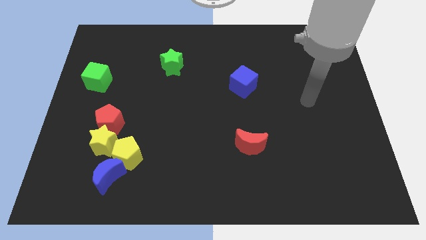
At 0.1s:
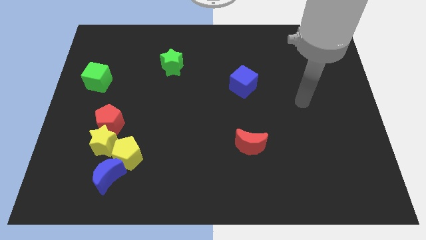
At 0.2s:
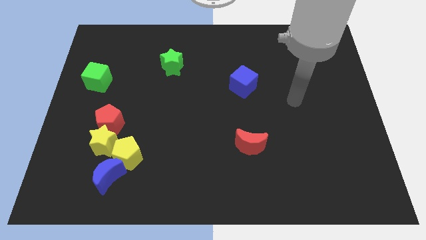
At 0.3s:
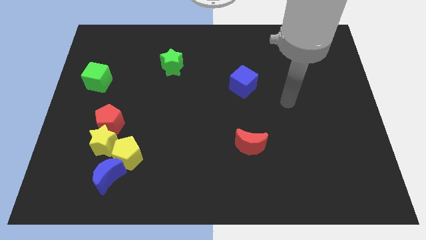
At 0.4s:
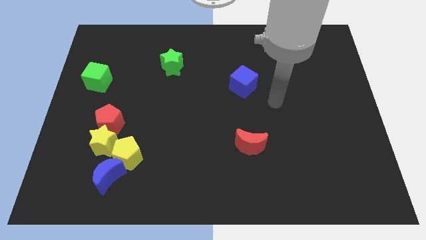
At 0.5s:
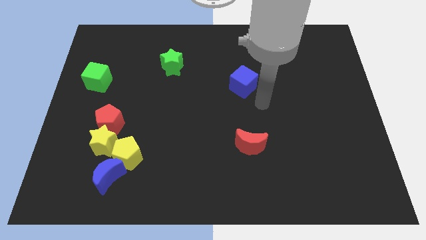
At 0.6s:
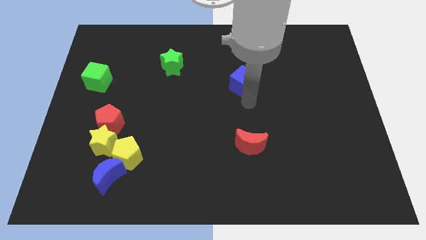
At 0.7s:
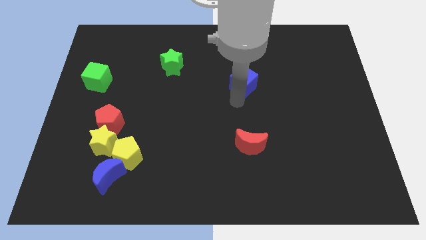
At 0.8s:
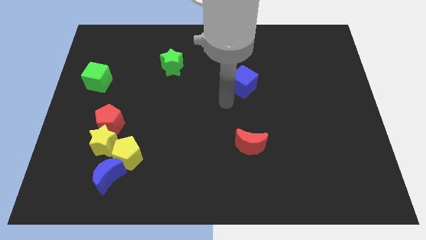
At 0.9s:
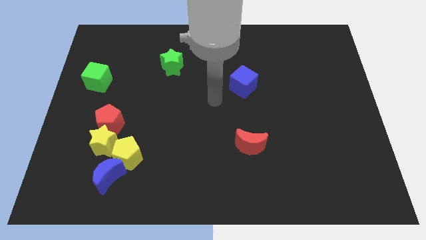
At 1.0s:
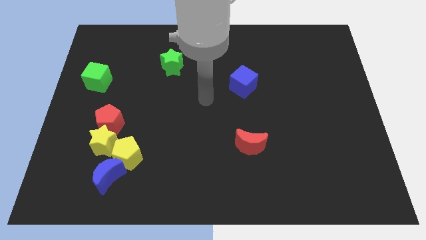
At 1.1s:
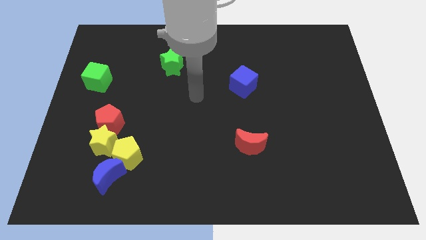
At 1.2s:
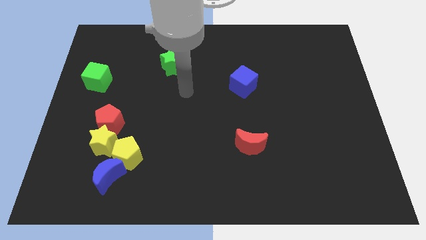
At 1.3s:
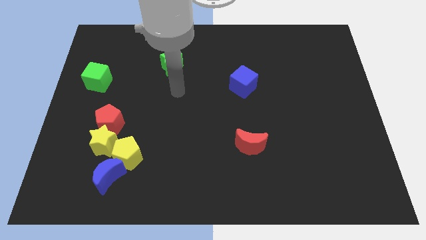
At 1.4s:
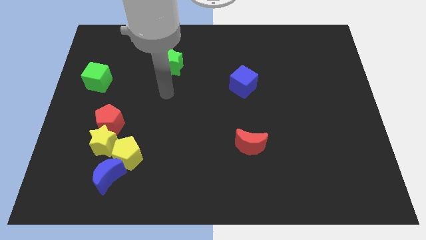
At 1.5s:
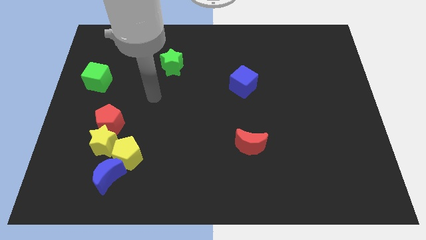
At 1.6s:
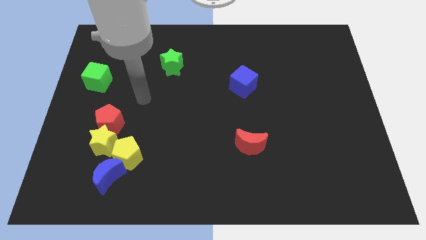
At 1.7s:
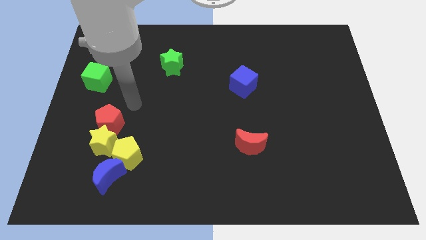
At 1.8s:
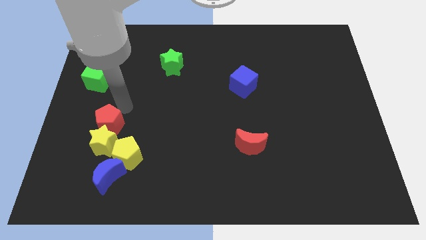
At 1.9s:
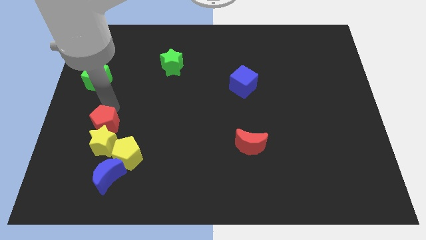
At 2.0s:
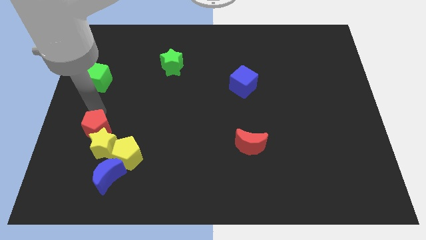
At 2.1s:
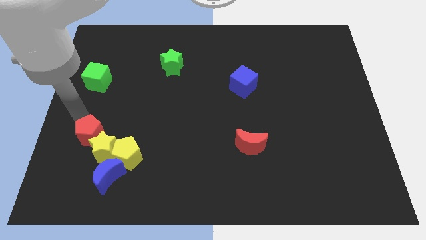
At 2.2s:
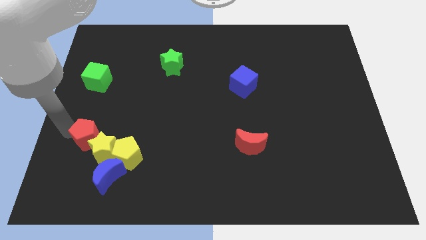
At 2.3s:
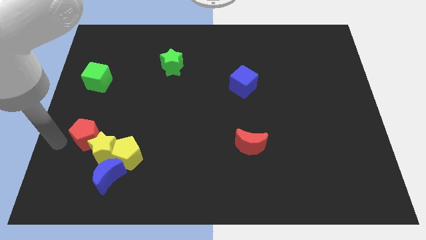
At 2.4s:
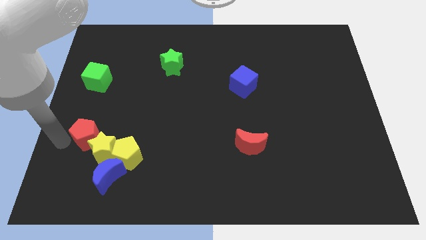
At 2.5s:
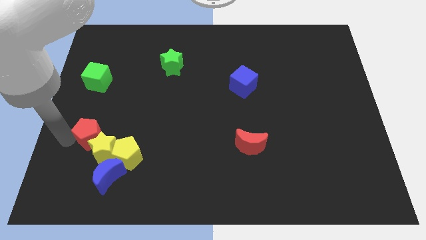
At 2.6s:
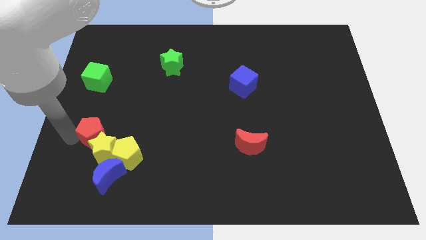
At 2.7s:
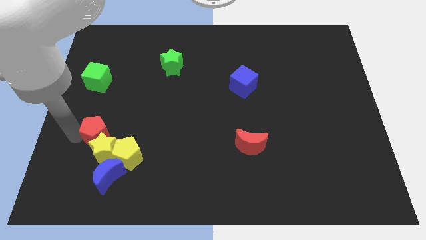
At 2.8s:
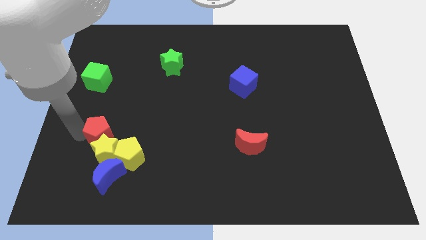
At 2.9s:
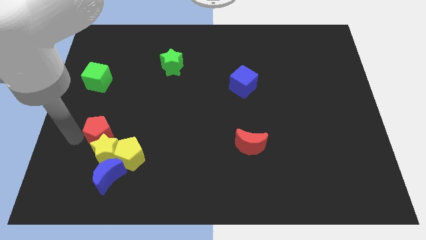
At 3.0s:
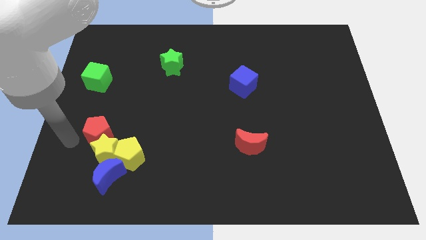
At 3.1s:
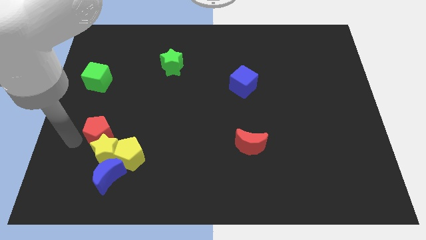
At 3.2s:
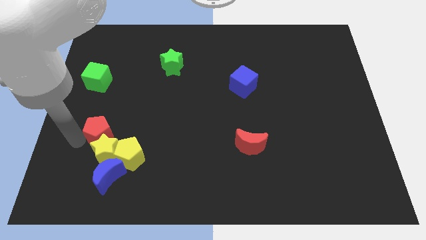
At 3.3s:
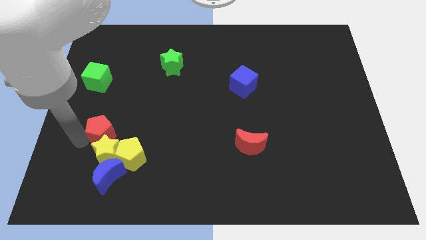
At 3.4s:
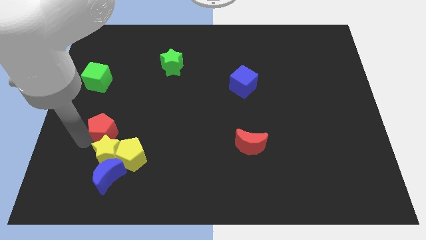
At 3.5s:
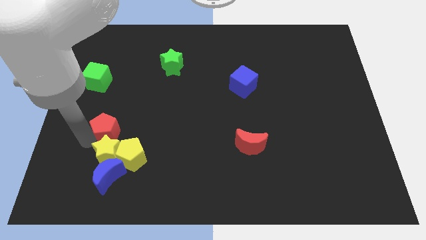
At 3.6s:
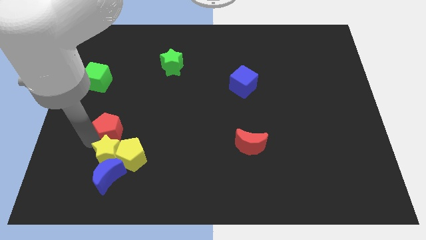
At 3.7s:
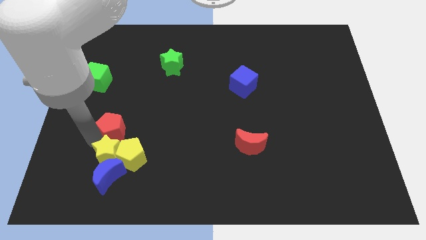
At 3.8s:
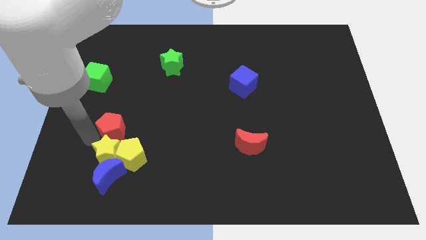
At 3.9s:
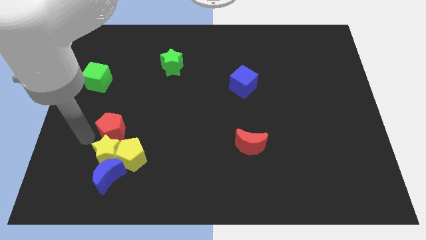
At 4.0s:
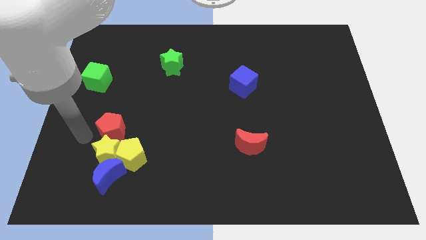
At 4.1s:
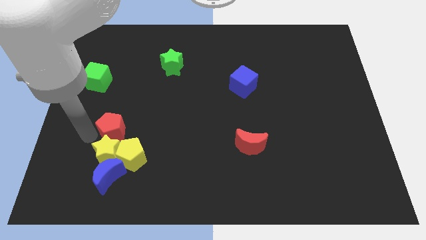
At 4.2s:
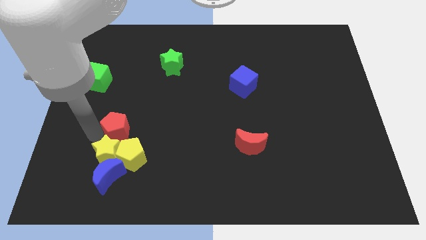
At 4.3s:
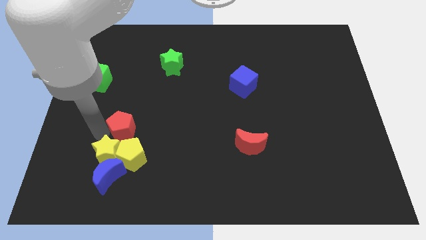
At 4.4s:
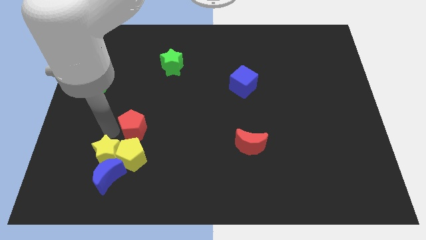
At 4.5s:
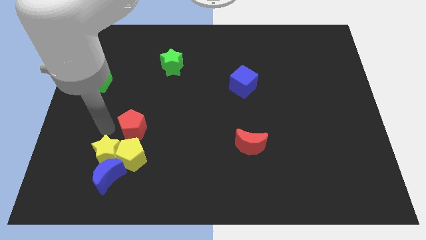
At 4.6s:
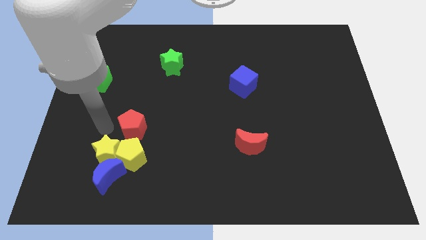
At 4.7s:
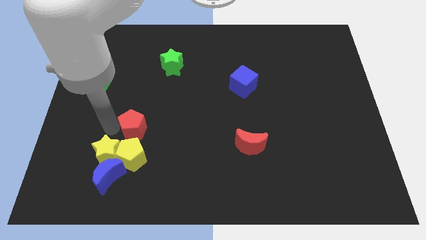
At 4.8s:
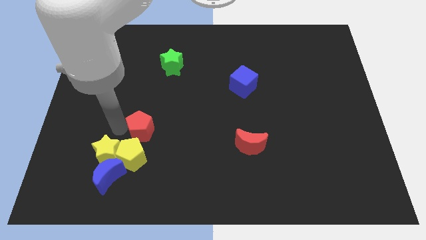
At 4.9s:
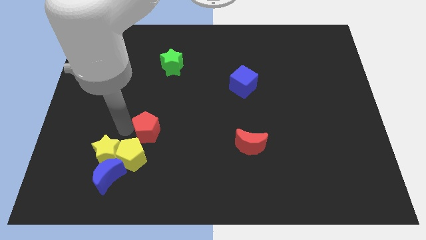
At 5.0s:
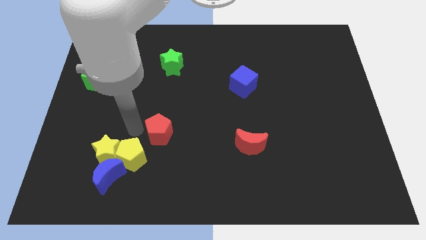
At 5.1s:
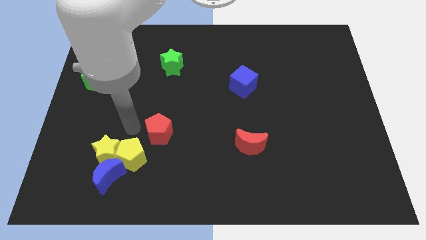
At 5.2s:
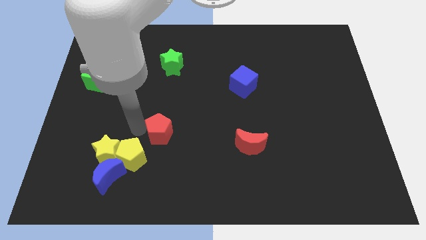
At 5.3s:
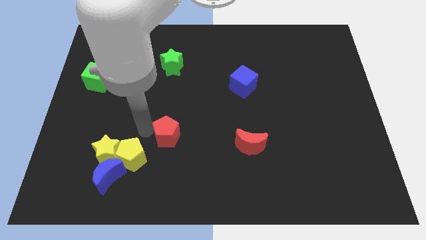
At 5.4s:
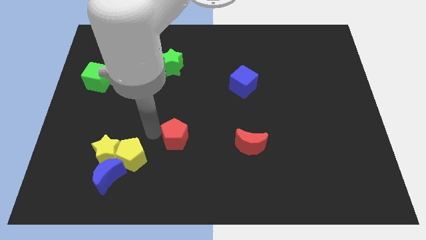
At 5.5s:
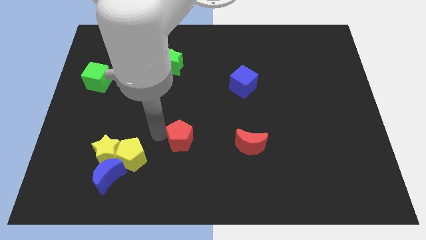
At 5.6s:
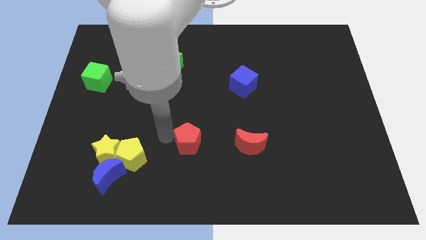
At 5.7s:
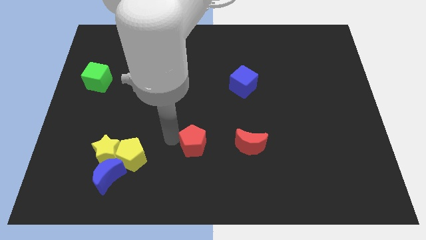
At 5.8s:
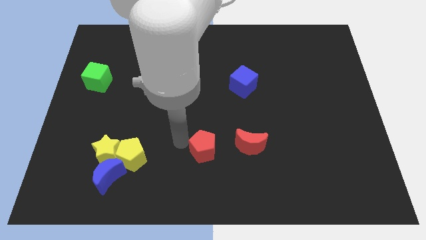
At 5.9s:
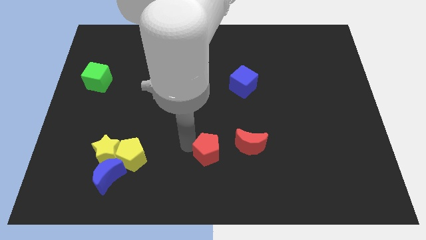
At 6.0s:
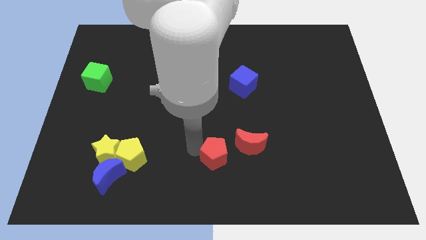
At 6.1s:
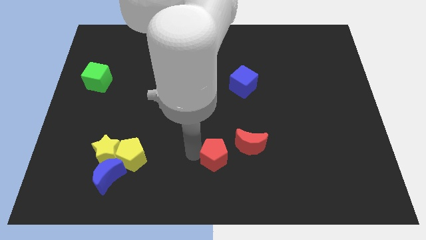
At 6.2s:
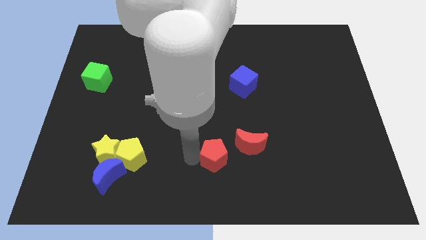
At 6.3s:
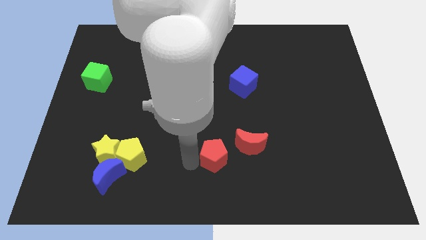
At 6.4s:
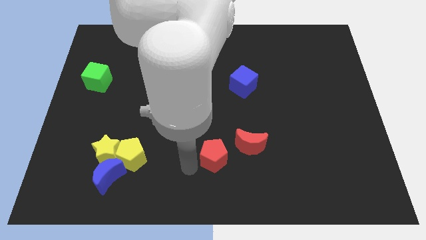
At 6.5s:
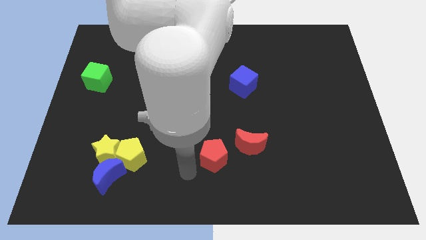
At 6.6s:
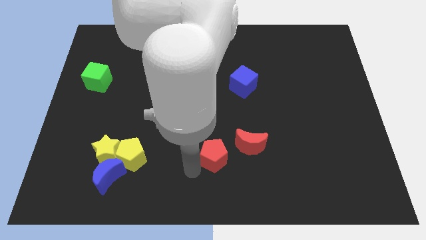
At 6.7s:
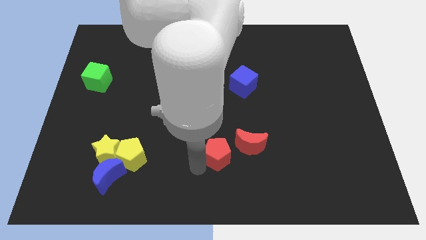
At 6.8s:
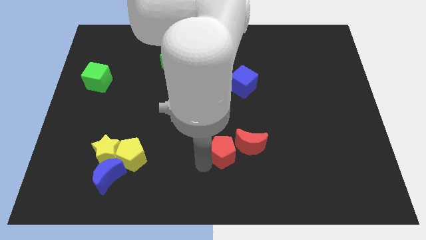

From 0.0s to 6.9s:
slide the red pentagon close to the red moon

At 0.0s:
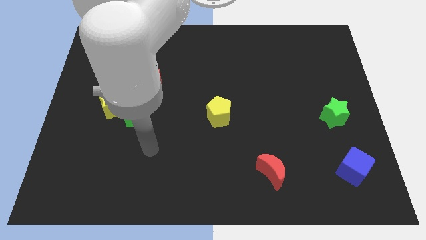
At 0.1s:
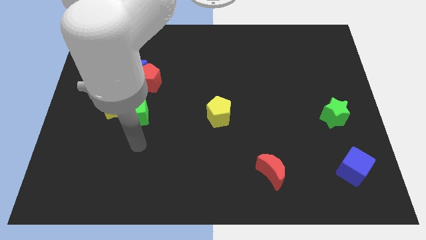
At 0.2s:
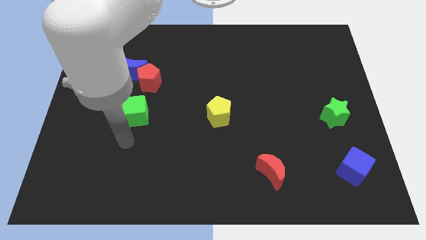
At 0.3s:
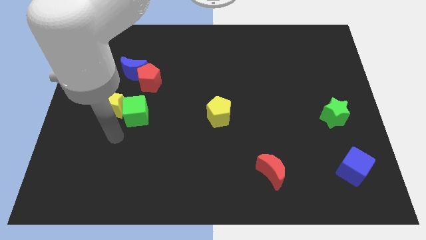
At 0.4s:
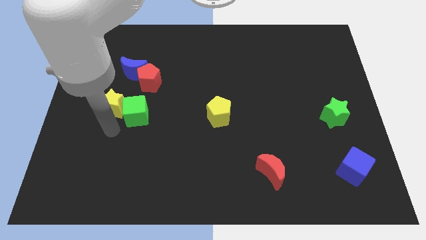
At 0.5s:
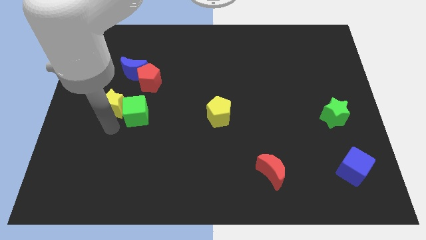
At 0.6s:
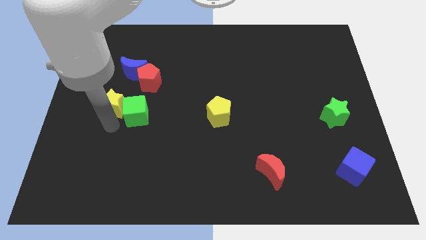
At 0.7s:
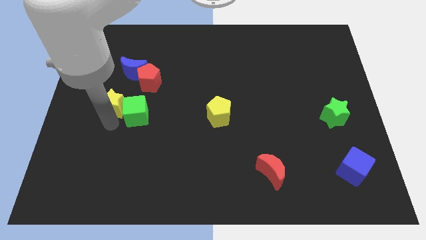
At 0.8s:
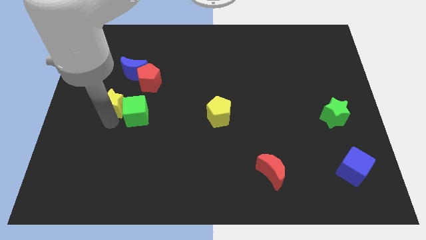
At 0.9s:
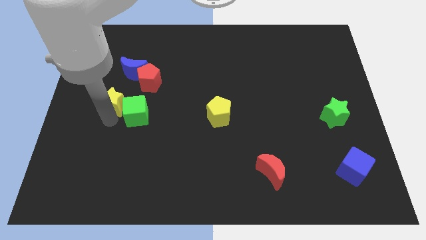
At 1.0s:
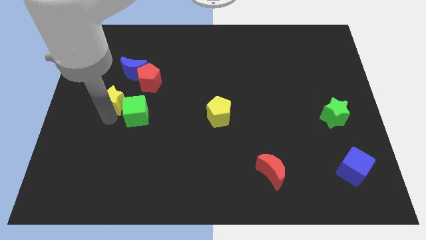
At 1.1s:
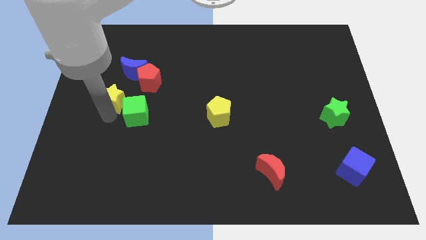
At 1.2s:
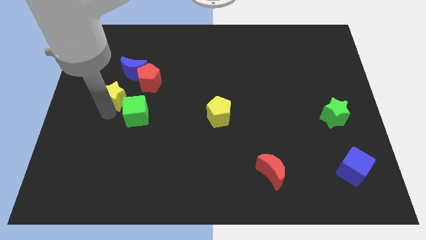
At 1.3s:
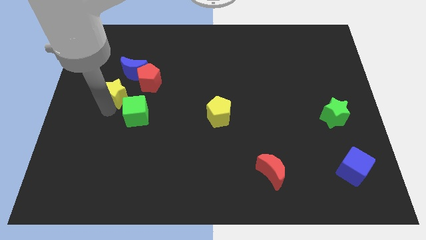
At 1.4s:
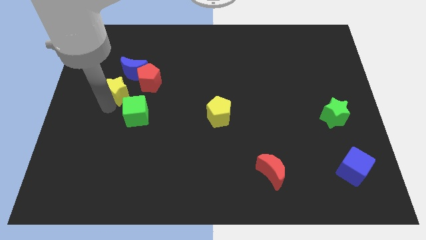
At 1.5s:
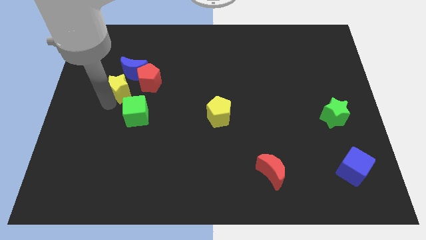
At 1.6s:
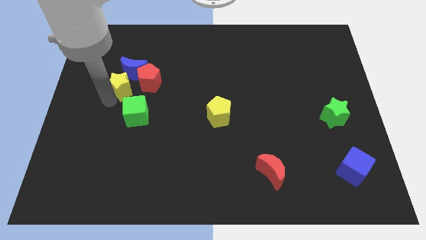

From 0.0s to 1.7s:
move the yellow star next to the blue moon
